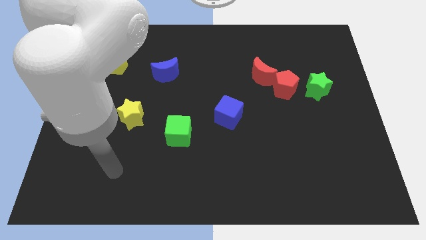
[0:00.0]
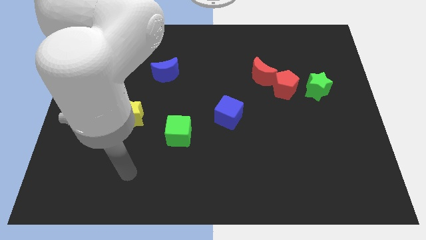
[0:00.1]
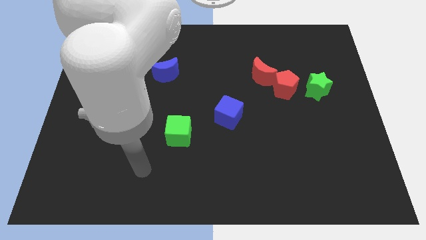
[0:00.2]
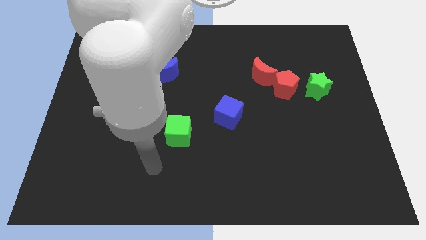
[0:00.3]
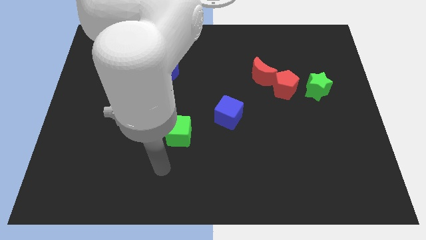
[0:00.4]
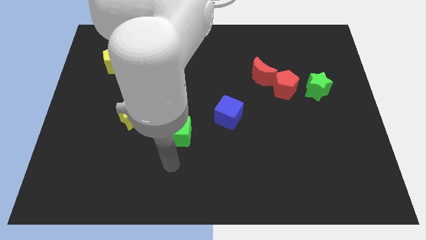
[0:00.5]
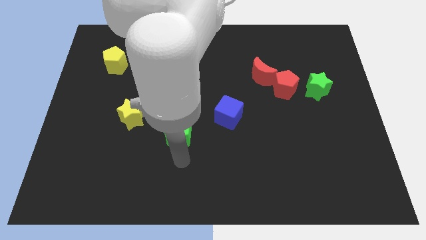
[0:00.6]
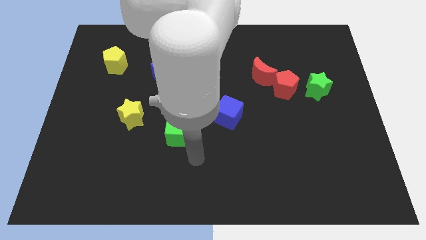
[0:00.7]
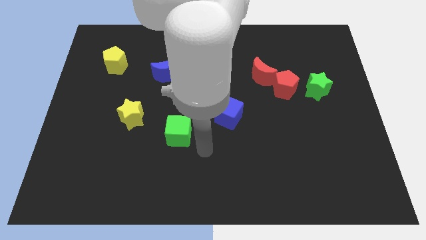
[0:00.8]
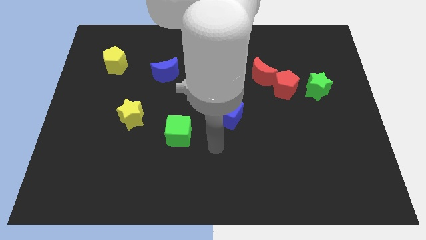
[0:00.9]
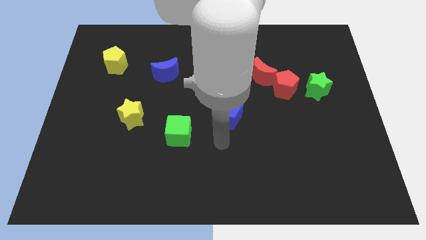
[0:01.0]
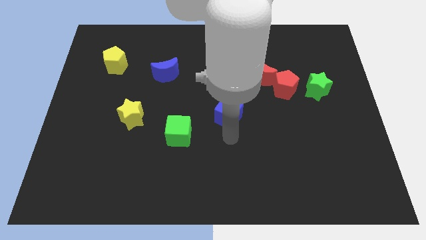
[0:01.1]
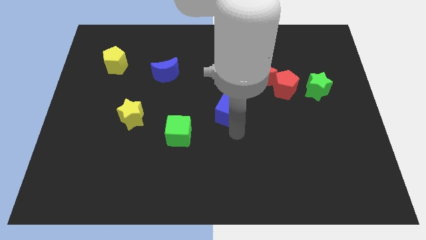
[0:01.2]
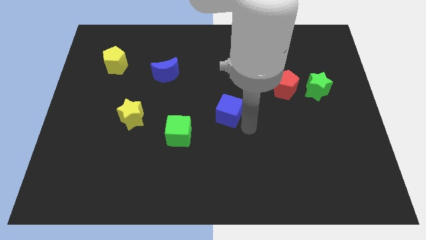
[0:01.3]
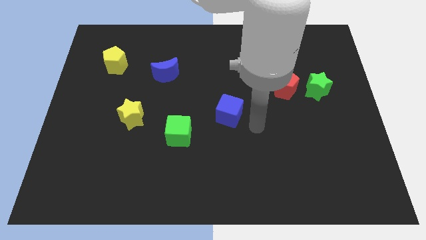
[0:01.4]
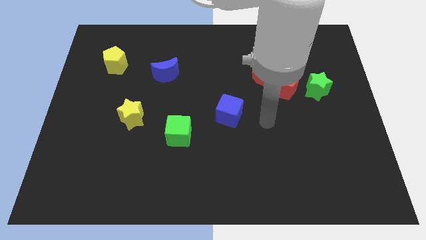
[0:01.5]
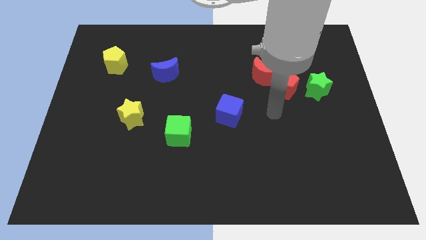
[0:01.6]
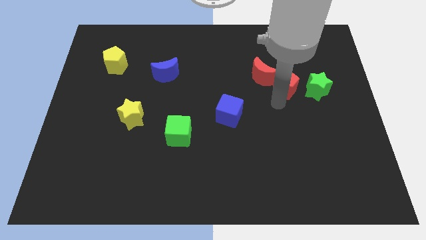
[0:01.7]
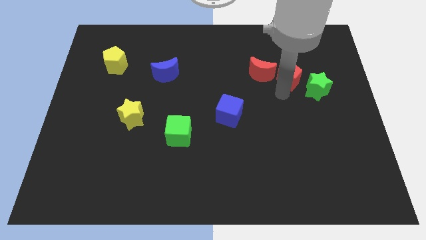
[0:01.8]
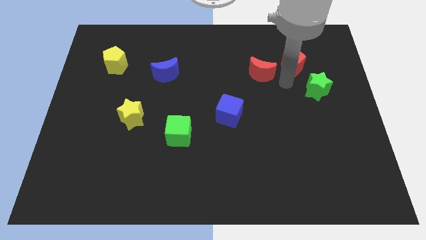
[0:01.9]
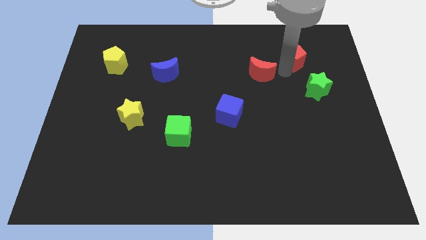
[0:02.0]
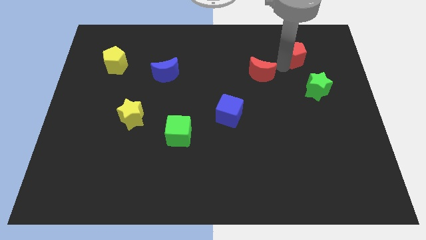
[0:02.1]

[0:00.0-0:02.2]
separate the red moon from the red pentagon

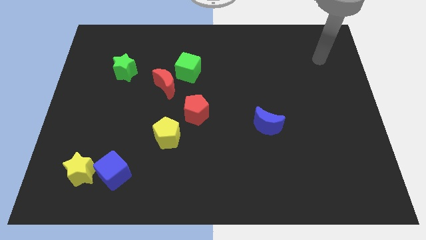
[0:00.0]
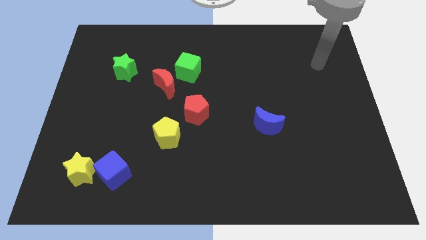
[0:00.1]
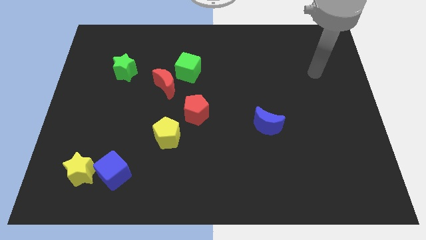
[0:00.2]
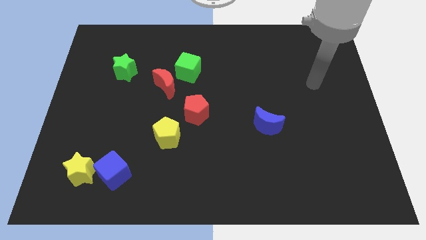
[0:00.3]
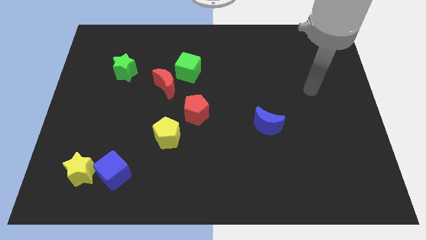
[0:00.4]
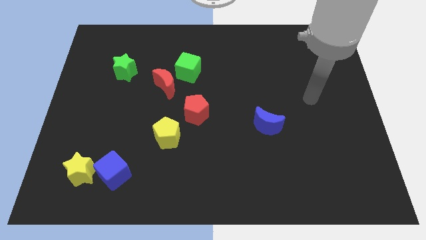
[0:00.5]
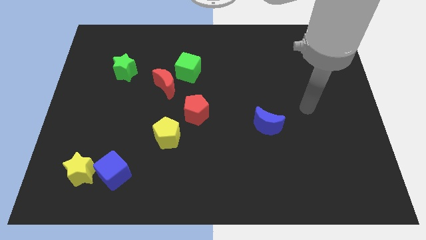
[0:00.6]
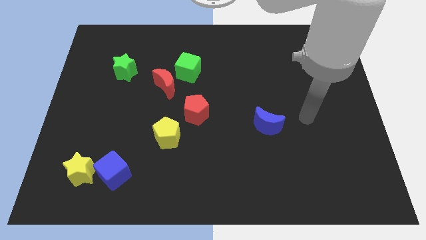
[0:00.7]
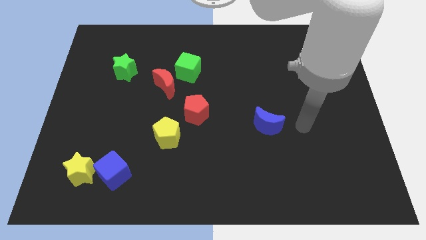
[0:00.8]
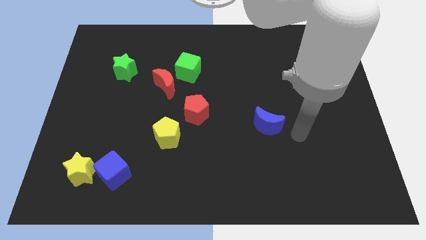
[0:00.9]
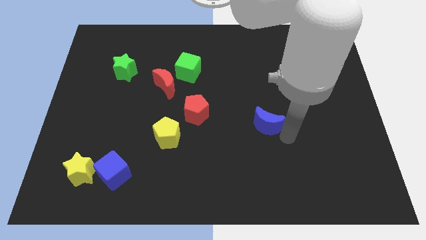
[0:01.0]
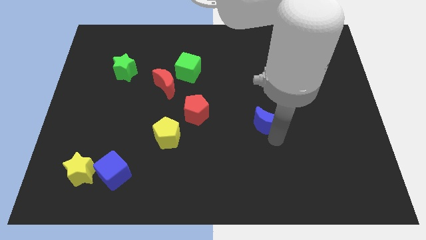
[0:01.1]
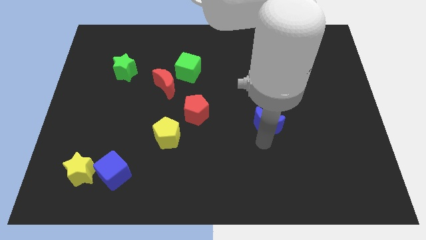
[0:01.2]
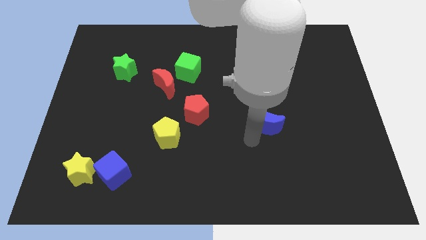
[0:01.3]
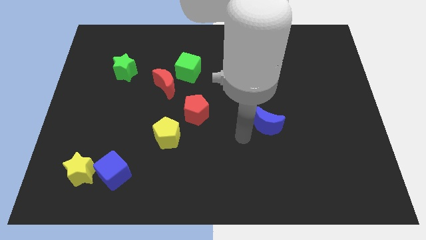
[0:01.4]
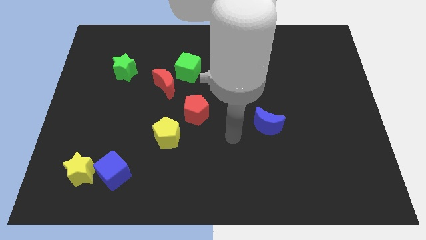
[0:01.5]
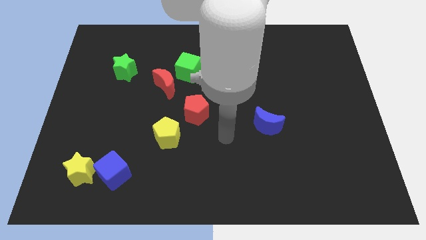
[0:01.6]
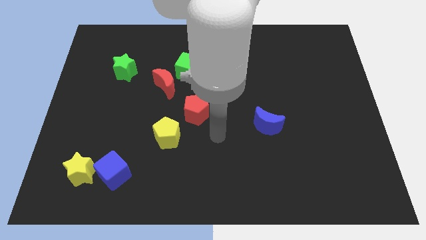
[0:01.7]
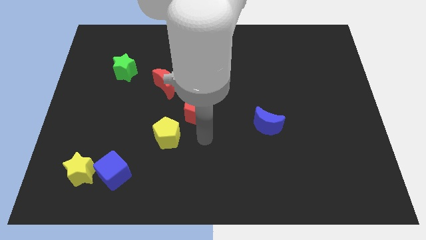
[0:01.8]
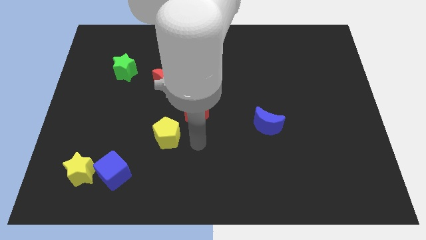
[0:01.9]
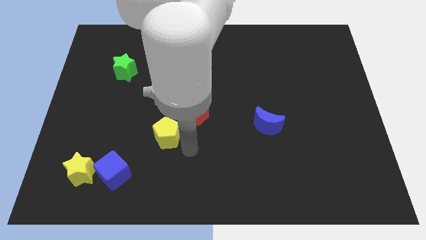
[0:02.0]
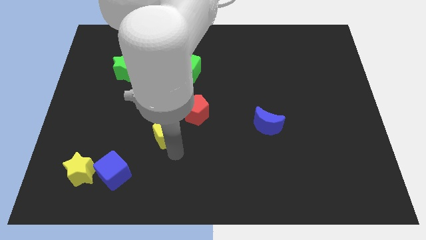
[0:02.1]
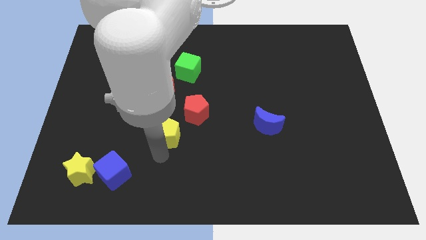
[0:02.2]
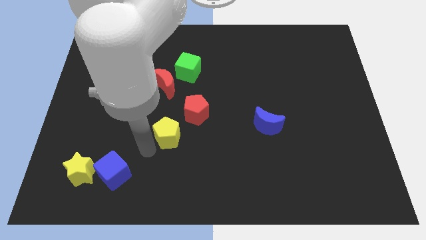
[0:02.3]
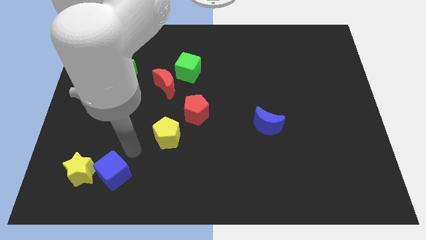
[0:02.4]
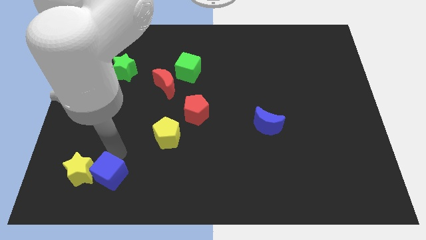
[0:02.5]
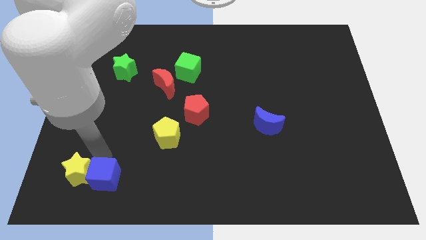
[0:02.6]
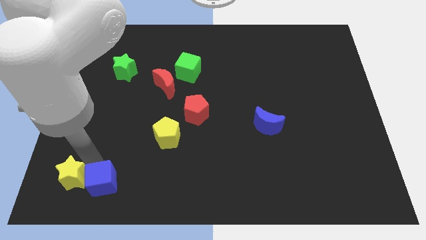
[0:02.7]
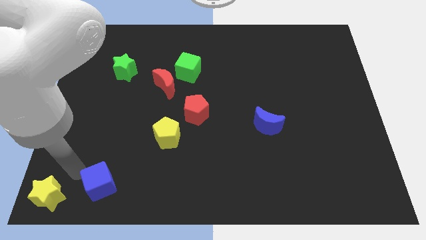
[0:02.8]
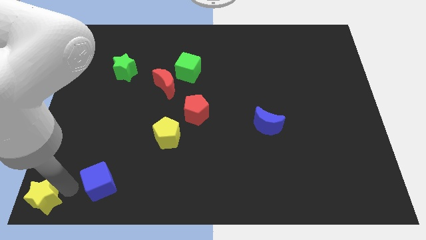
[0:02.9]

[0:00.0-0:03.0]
separate the blue cube from the yellow star

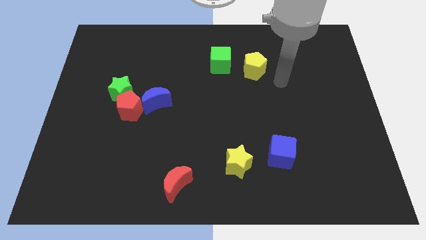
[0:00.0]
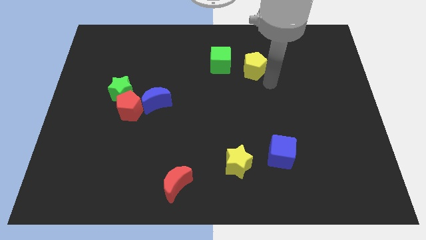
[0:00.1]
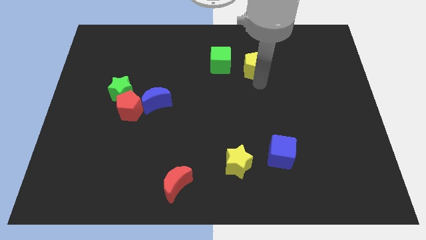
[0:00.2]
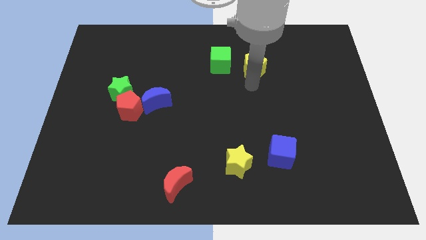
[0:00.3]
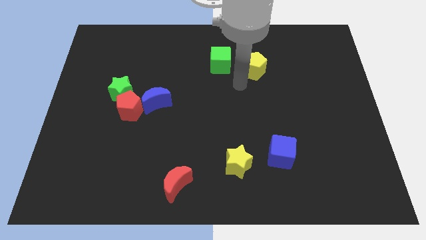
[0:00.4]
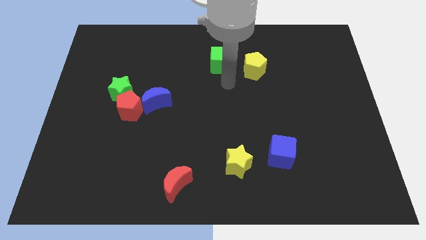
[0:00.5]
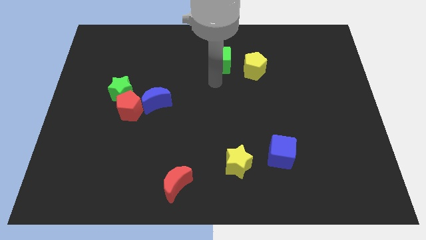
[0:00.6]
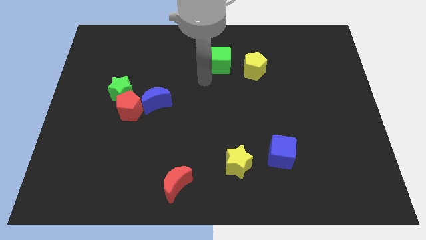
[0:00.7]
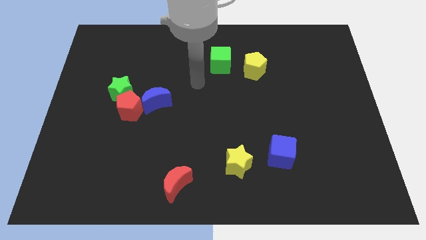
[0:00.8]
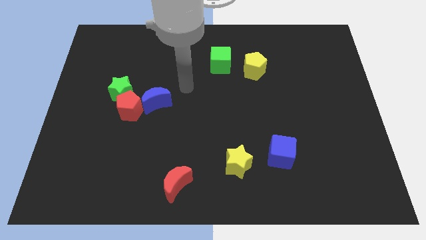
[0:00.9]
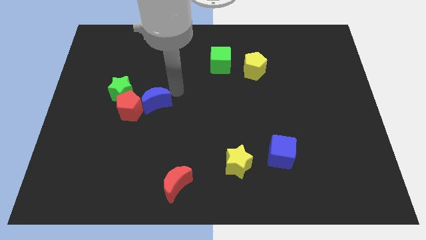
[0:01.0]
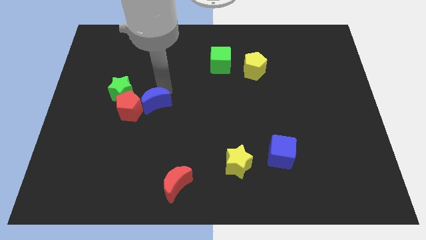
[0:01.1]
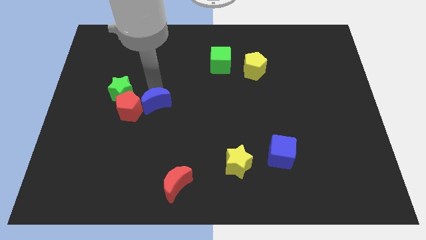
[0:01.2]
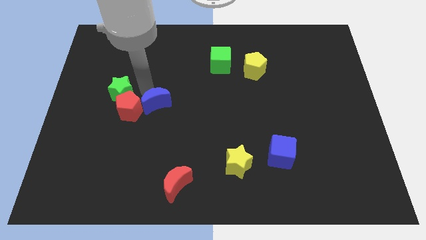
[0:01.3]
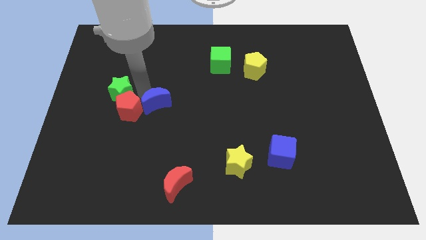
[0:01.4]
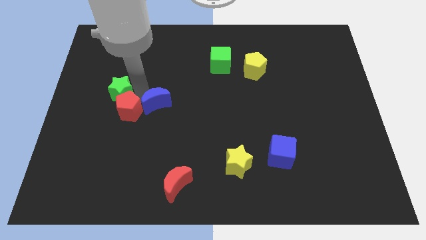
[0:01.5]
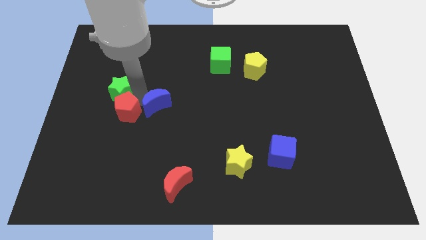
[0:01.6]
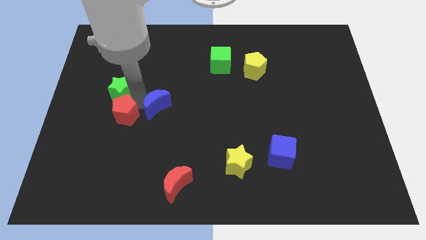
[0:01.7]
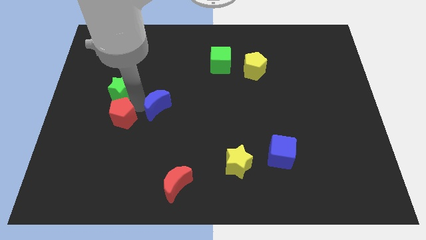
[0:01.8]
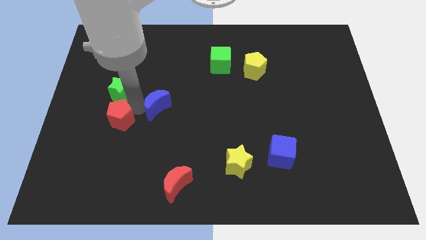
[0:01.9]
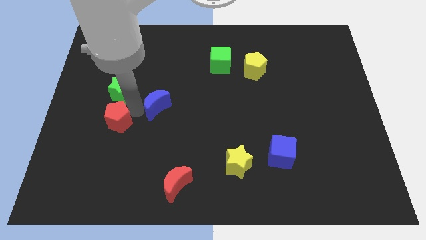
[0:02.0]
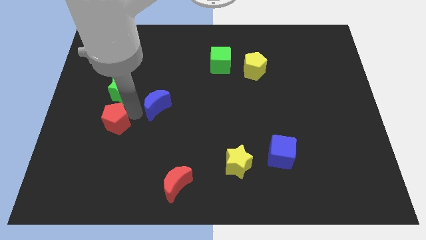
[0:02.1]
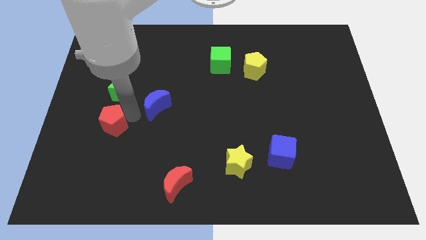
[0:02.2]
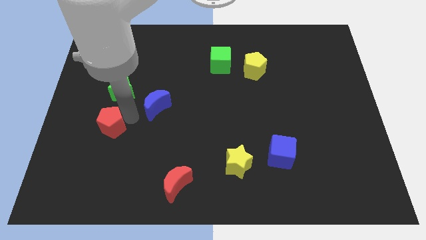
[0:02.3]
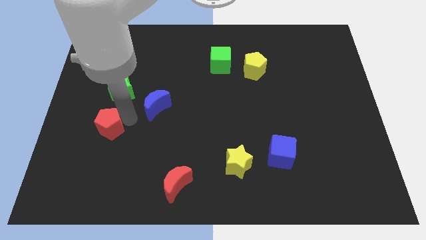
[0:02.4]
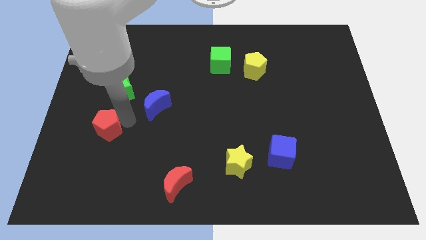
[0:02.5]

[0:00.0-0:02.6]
separate the red pentagon from the green star and blue moon

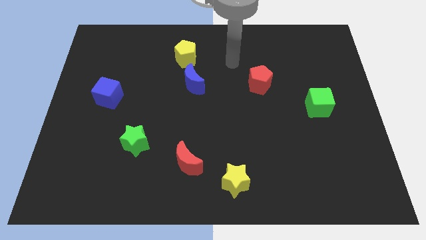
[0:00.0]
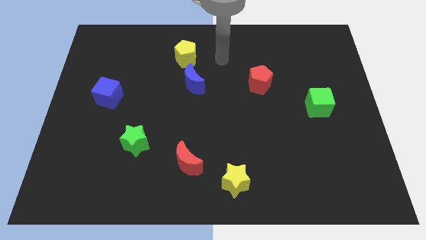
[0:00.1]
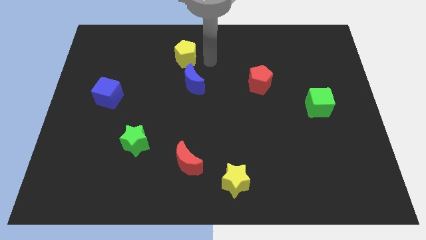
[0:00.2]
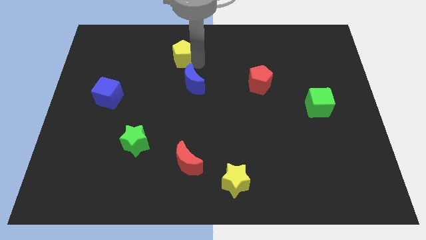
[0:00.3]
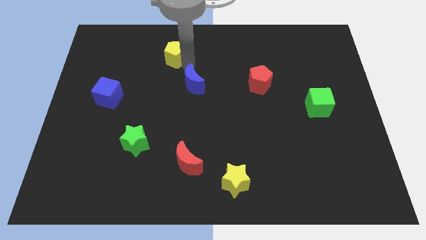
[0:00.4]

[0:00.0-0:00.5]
separate the blue moon from the yellow pentagon

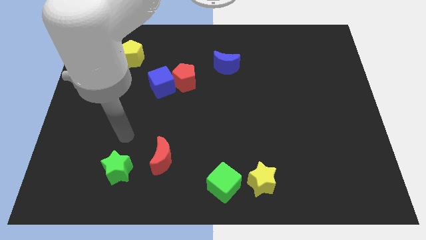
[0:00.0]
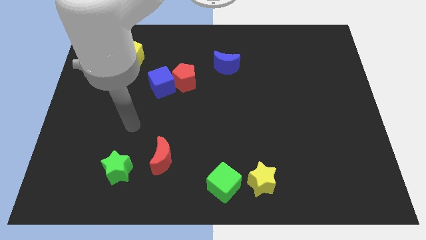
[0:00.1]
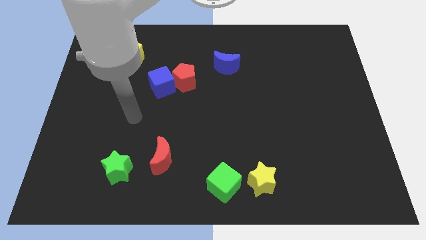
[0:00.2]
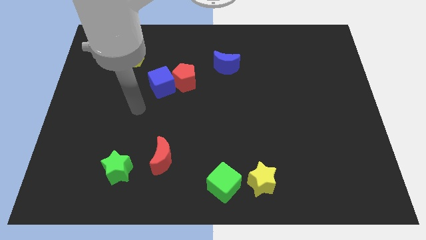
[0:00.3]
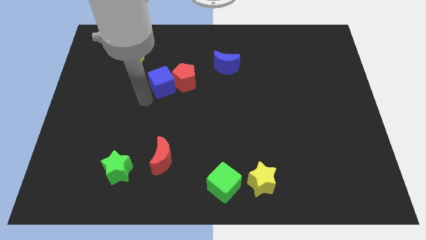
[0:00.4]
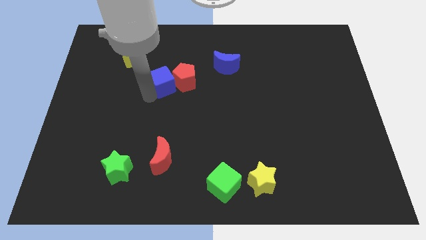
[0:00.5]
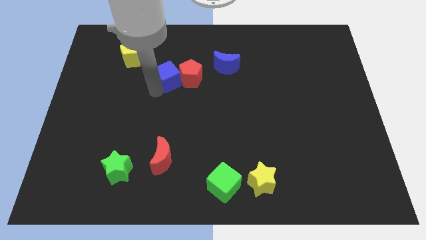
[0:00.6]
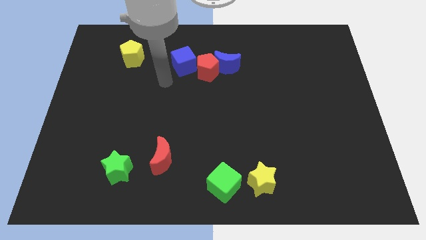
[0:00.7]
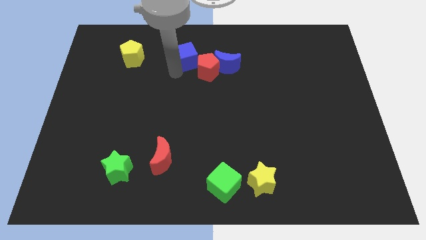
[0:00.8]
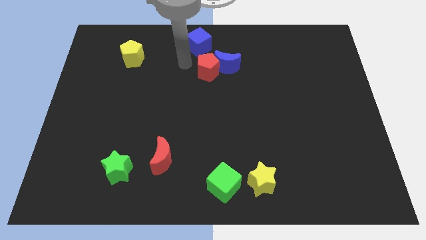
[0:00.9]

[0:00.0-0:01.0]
move the red pentagon away from the blue cube
